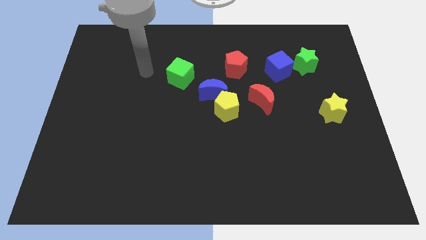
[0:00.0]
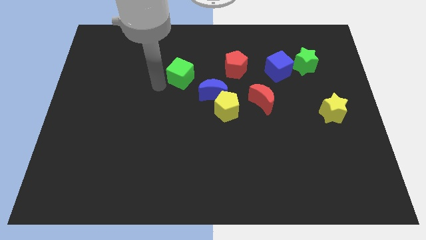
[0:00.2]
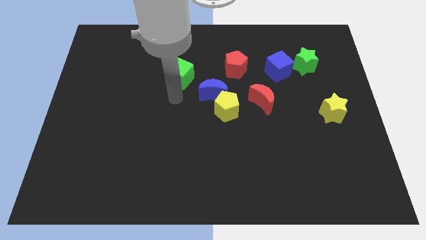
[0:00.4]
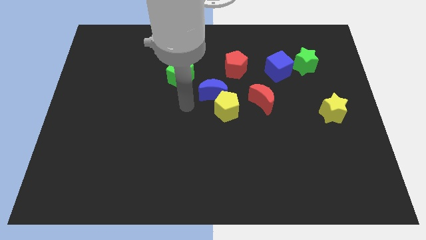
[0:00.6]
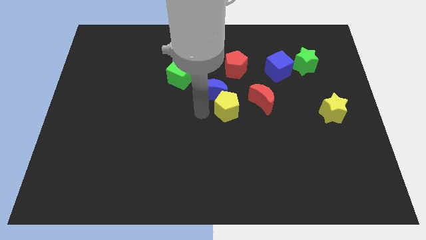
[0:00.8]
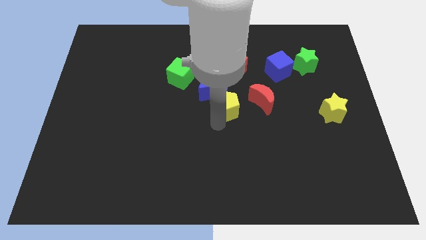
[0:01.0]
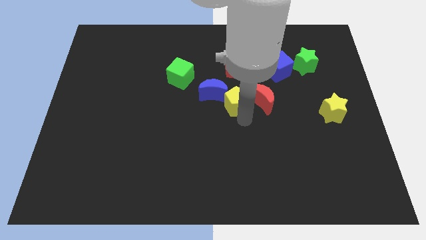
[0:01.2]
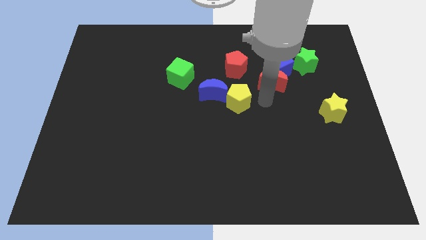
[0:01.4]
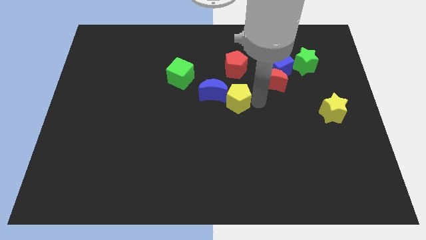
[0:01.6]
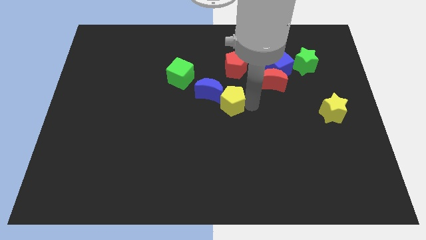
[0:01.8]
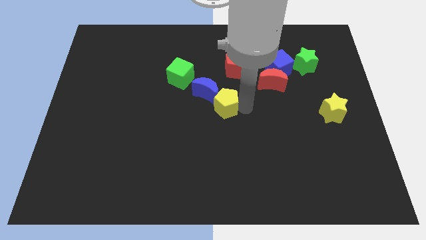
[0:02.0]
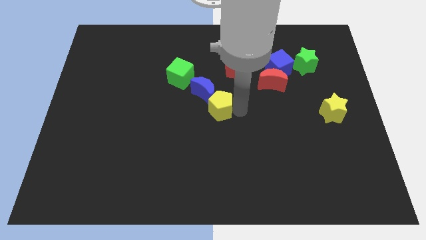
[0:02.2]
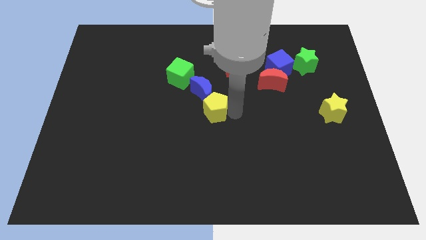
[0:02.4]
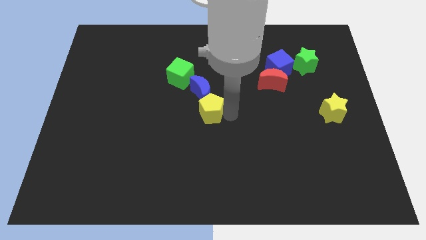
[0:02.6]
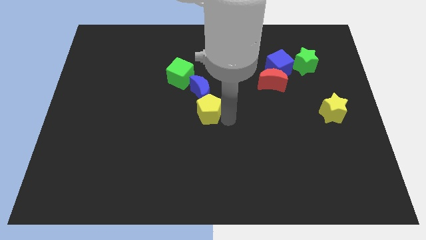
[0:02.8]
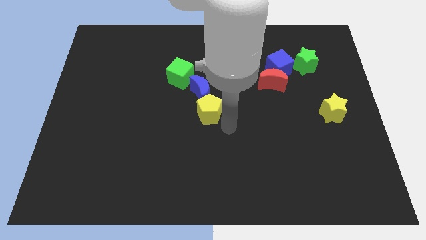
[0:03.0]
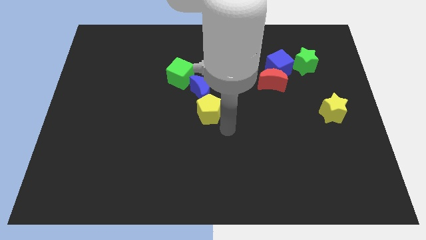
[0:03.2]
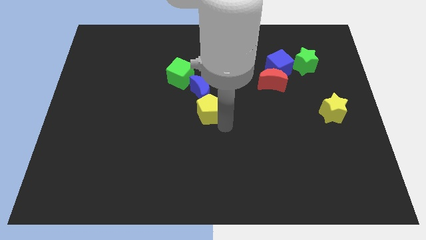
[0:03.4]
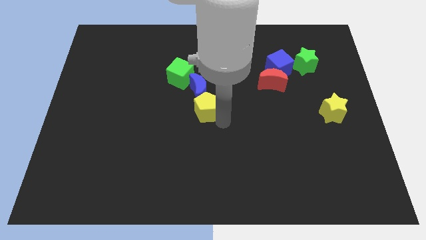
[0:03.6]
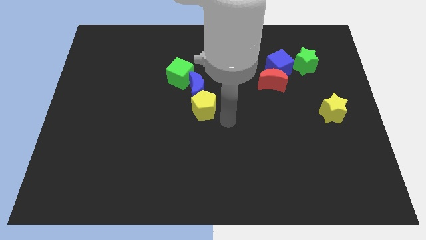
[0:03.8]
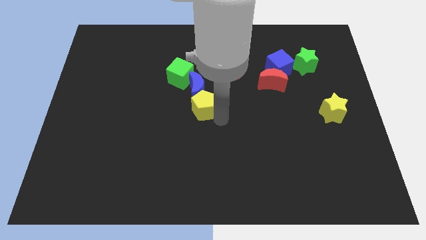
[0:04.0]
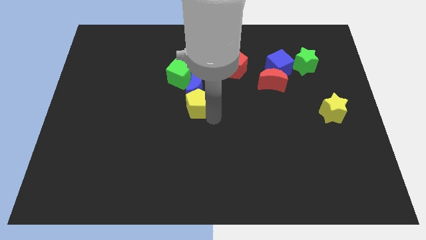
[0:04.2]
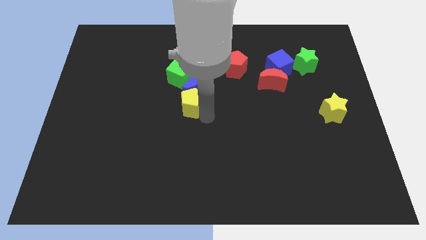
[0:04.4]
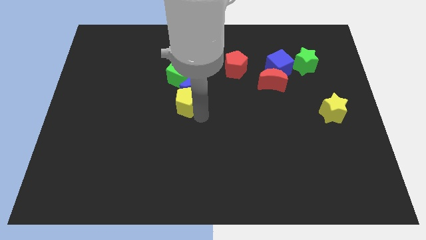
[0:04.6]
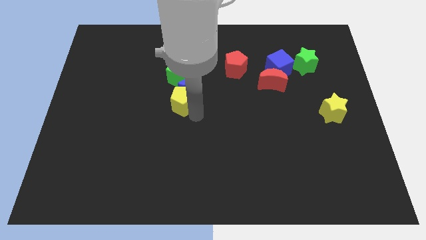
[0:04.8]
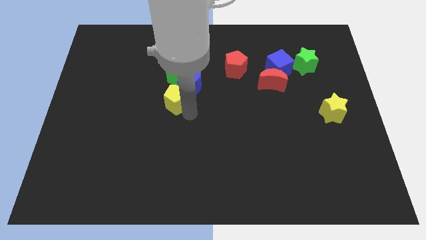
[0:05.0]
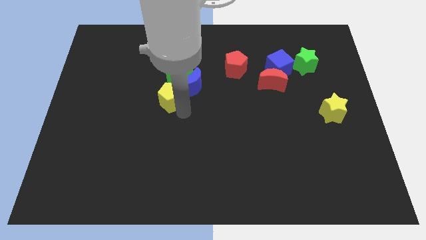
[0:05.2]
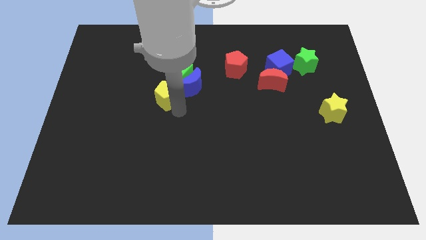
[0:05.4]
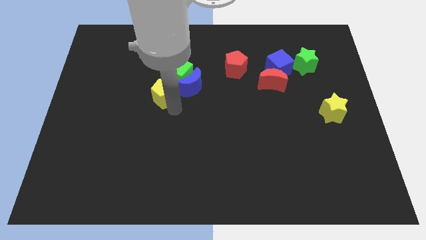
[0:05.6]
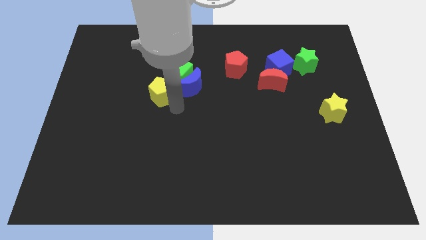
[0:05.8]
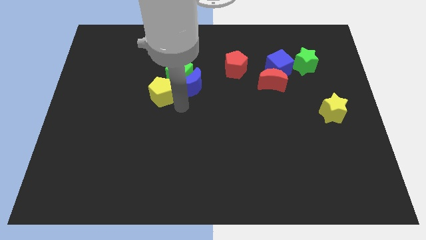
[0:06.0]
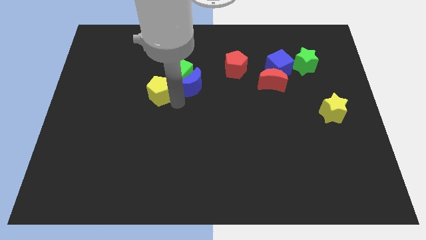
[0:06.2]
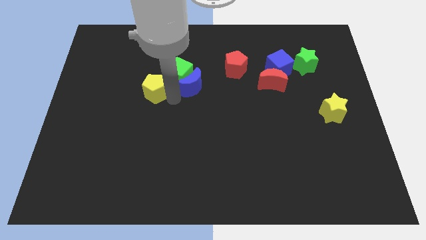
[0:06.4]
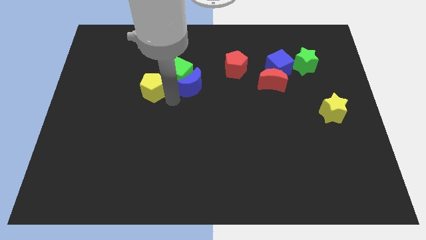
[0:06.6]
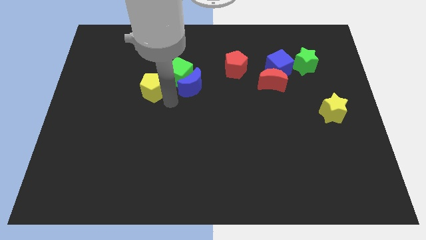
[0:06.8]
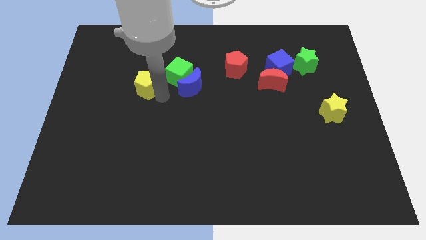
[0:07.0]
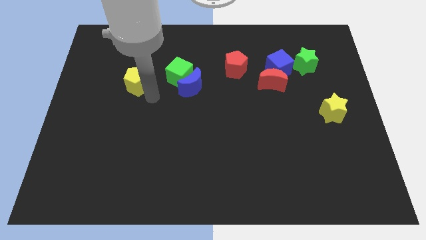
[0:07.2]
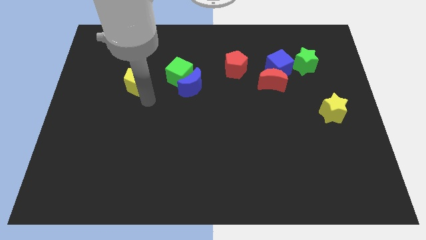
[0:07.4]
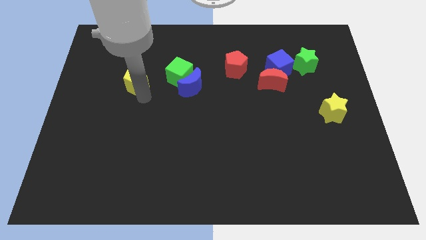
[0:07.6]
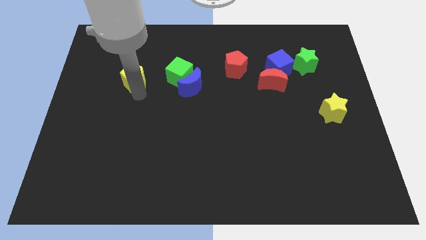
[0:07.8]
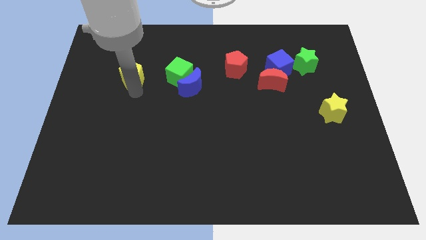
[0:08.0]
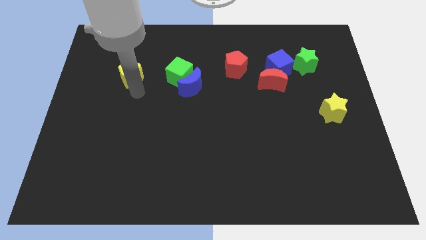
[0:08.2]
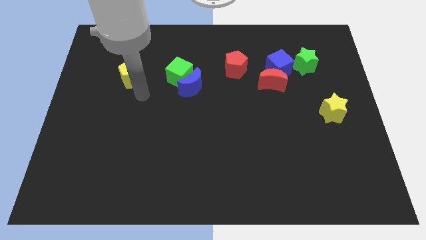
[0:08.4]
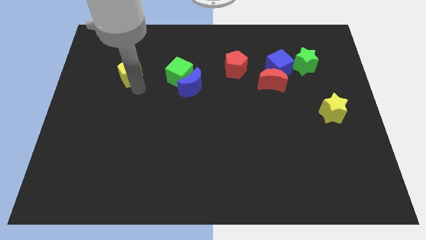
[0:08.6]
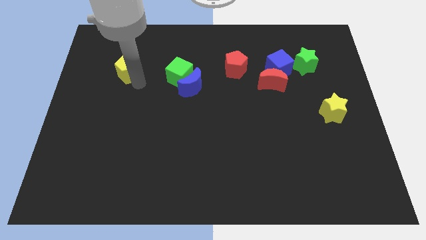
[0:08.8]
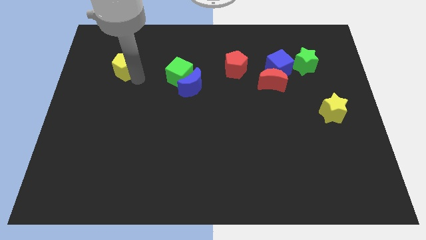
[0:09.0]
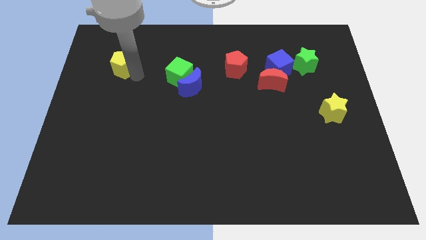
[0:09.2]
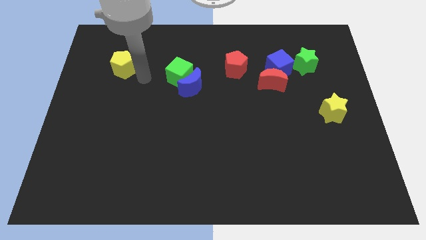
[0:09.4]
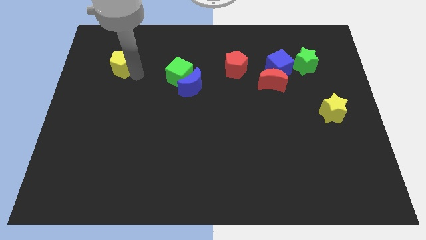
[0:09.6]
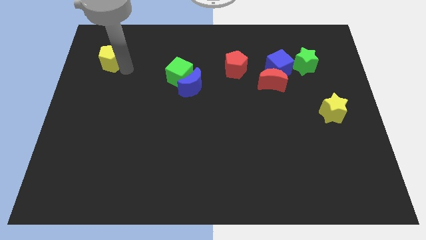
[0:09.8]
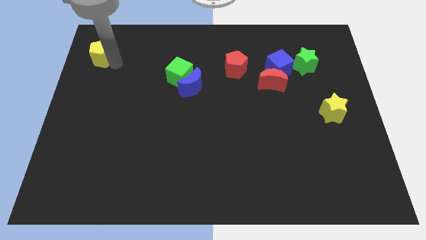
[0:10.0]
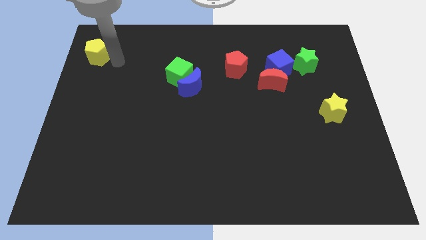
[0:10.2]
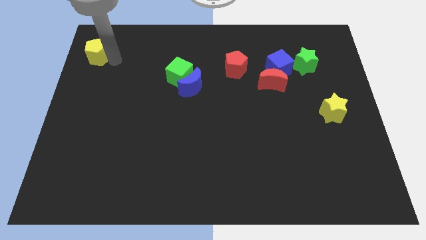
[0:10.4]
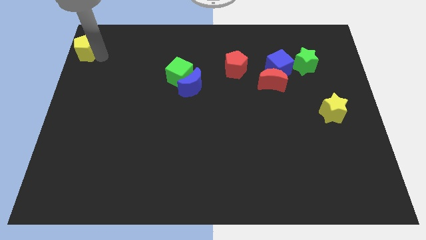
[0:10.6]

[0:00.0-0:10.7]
move the yellow pentagon to the upper left corner

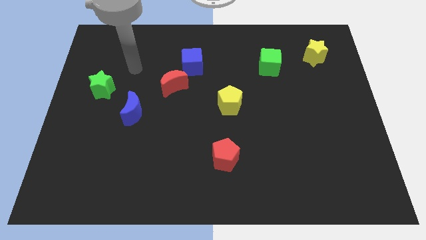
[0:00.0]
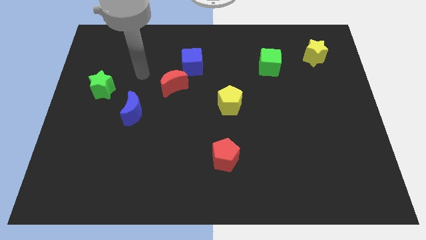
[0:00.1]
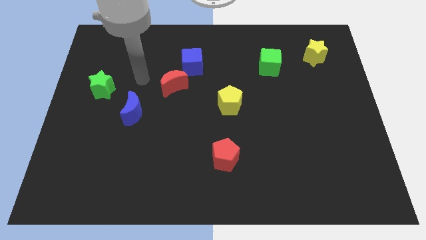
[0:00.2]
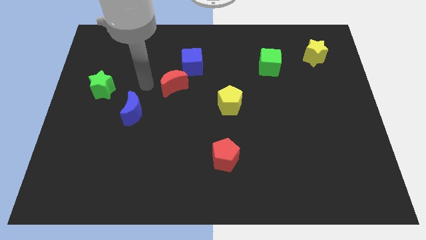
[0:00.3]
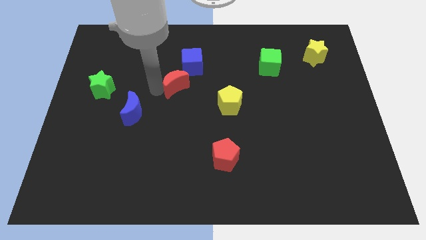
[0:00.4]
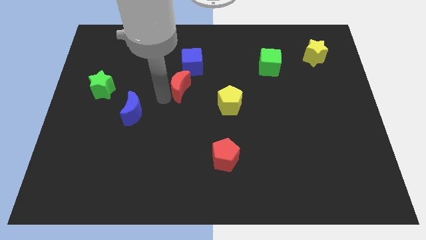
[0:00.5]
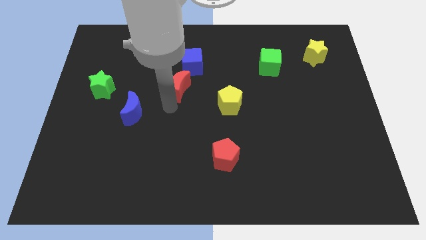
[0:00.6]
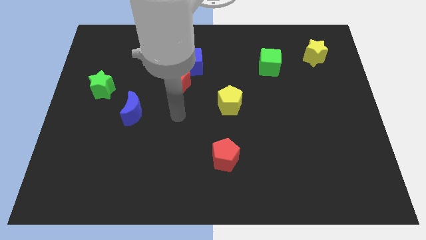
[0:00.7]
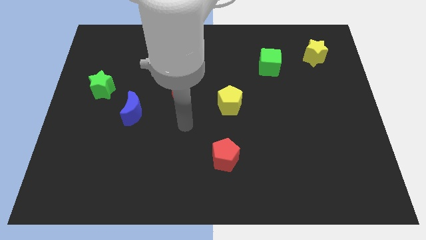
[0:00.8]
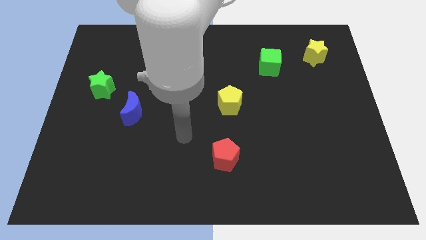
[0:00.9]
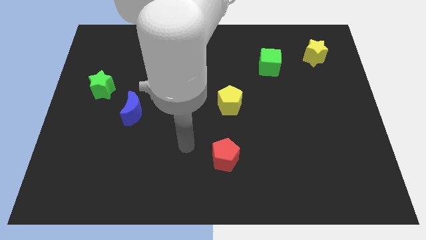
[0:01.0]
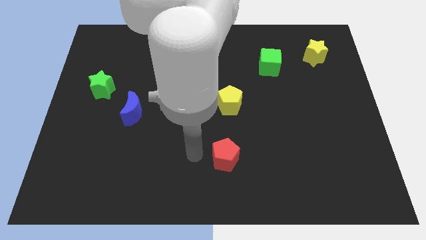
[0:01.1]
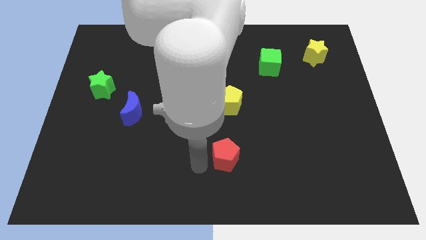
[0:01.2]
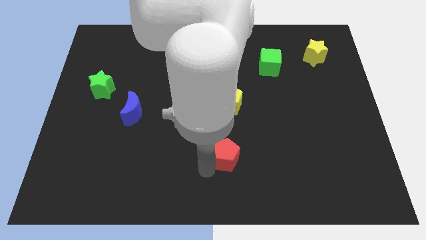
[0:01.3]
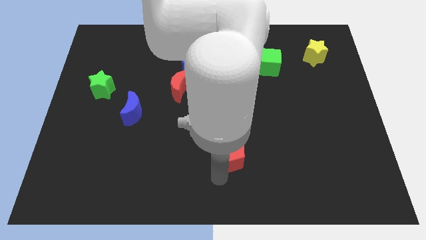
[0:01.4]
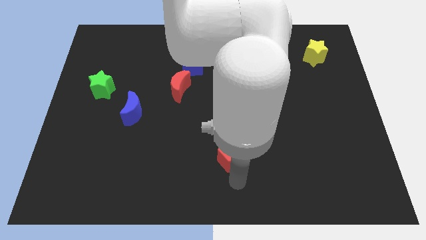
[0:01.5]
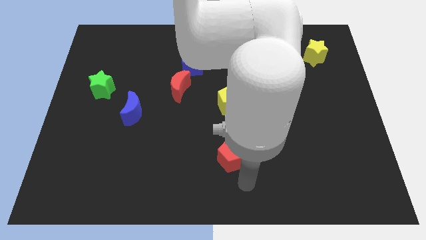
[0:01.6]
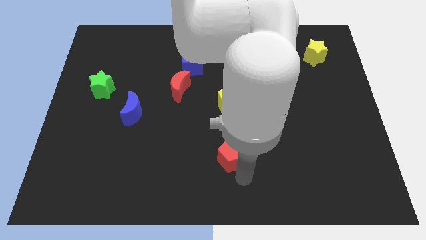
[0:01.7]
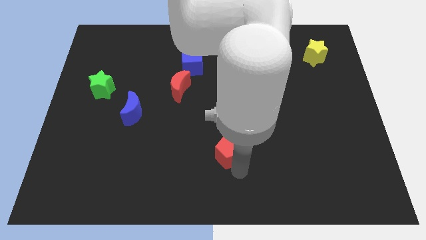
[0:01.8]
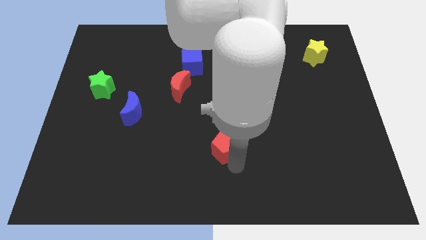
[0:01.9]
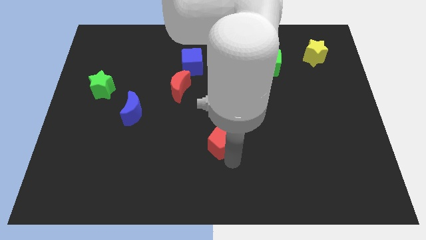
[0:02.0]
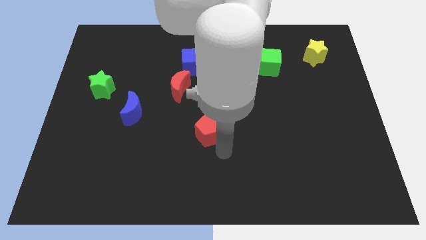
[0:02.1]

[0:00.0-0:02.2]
move the red pentagon to the middle of the board
